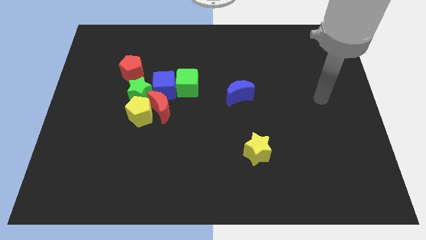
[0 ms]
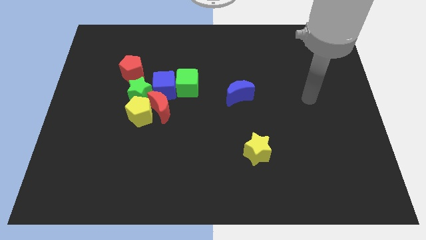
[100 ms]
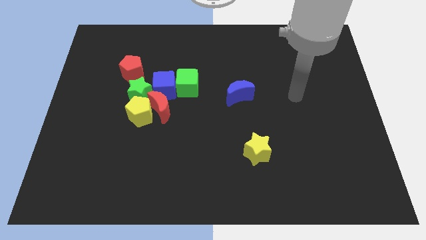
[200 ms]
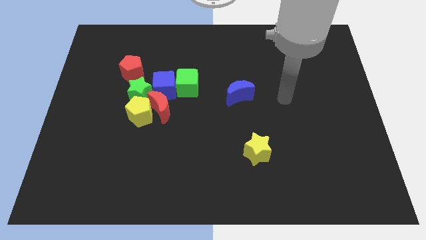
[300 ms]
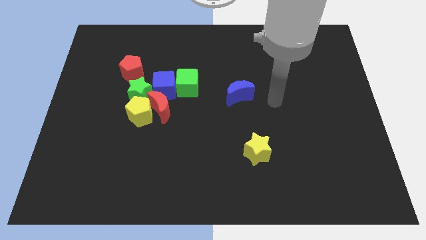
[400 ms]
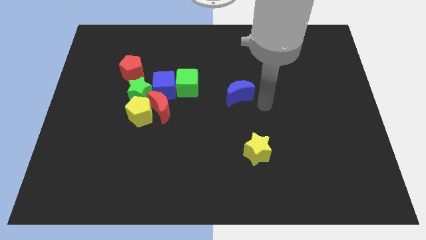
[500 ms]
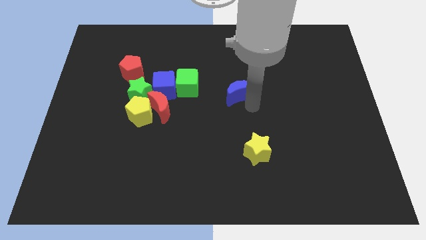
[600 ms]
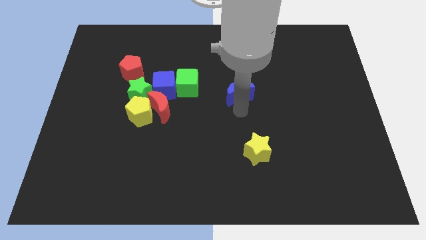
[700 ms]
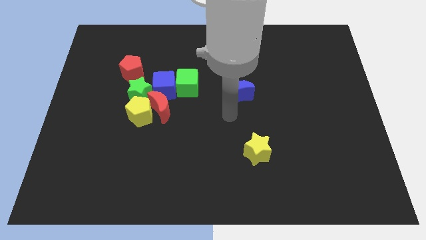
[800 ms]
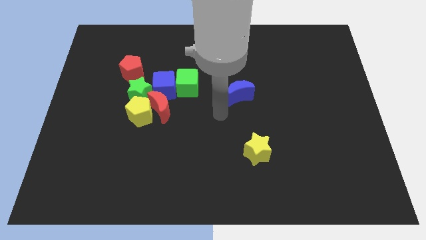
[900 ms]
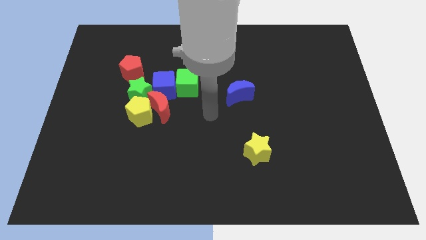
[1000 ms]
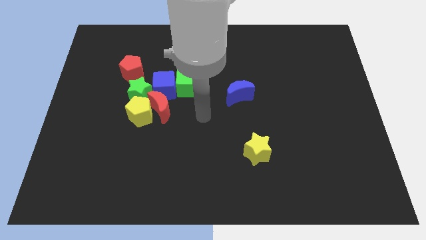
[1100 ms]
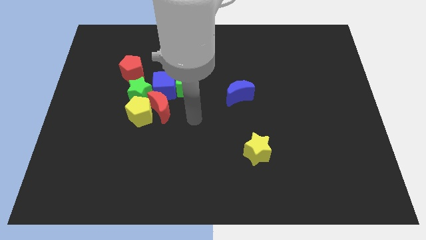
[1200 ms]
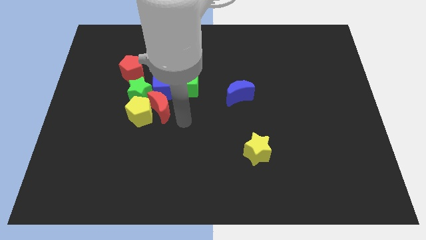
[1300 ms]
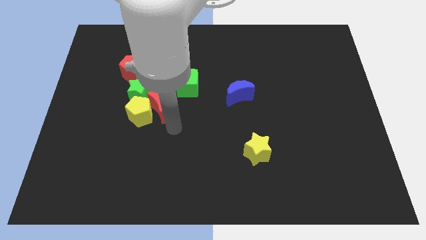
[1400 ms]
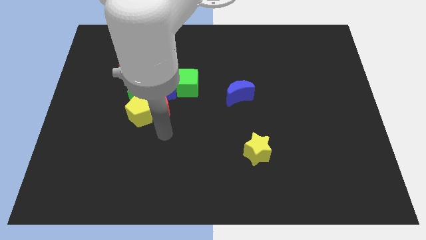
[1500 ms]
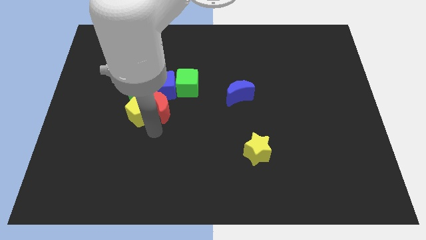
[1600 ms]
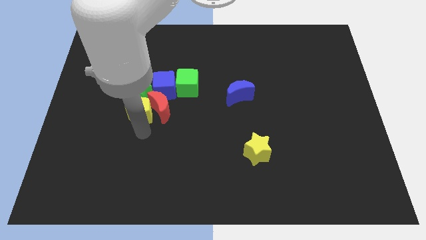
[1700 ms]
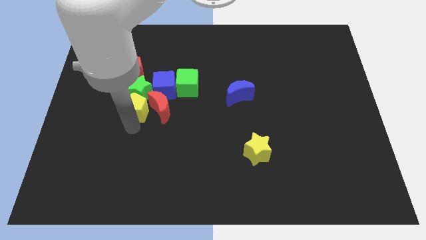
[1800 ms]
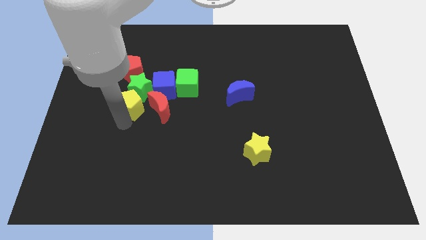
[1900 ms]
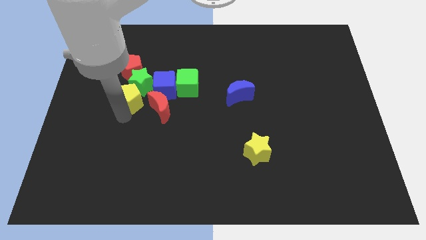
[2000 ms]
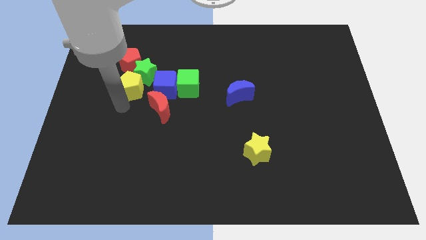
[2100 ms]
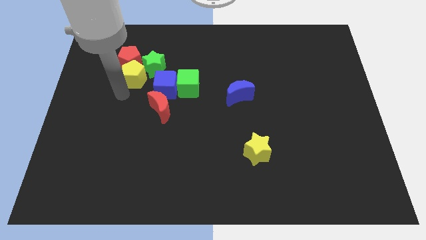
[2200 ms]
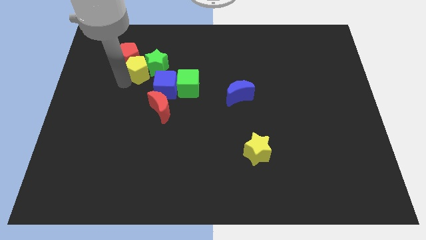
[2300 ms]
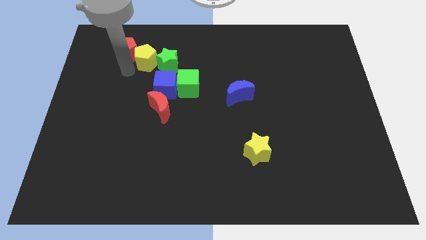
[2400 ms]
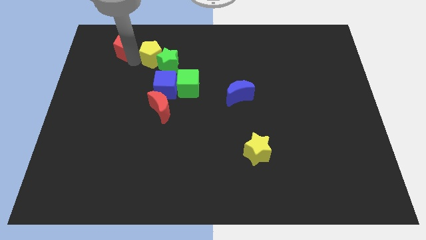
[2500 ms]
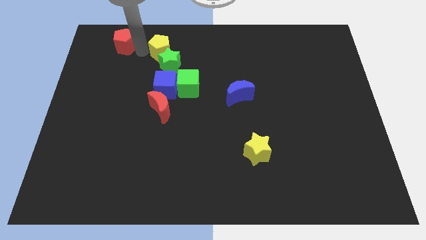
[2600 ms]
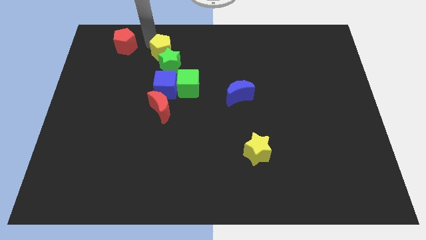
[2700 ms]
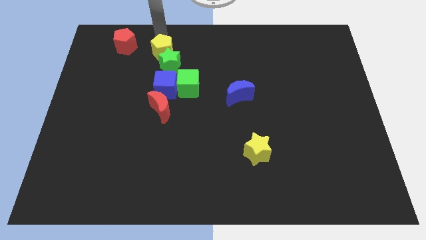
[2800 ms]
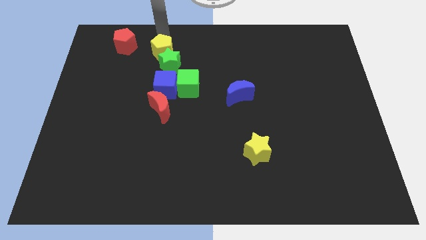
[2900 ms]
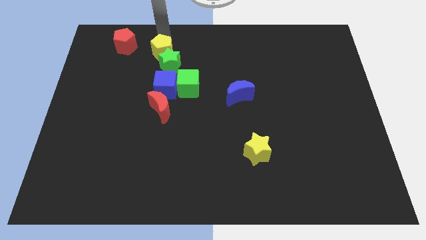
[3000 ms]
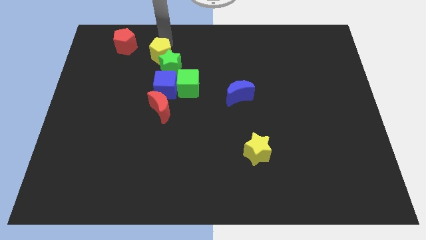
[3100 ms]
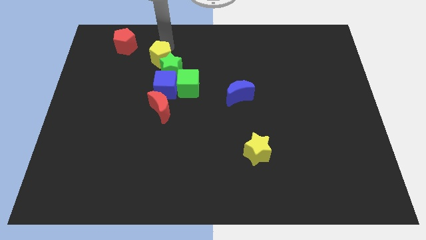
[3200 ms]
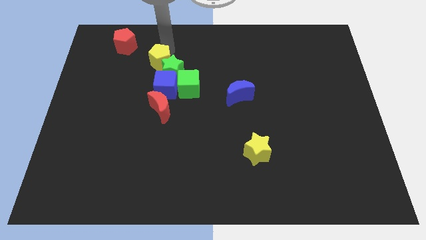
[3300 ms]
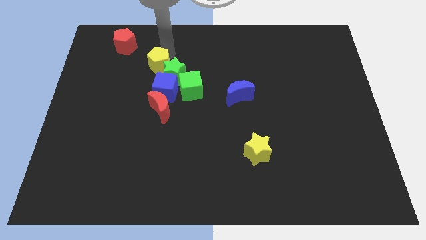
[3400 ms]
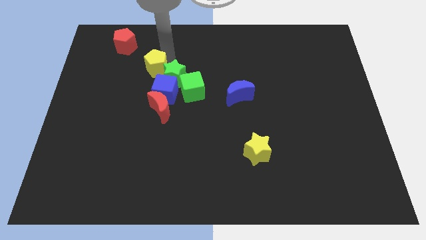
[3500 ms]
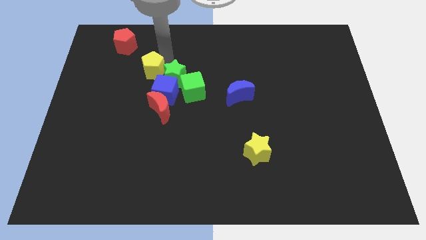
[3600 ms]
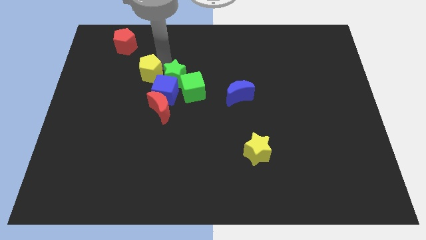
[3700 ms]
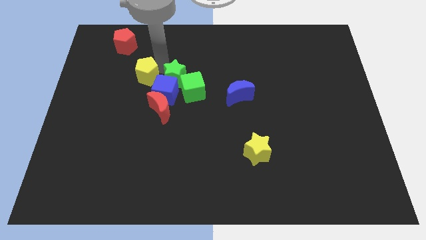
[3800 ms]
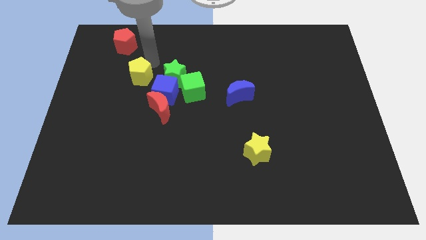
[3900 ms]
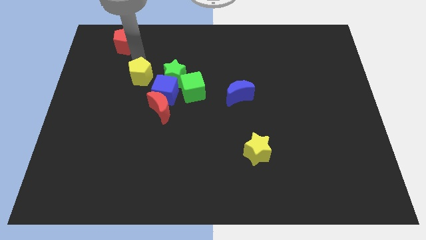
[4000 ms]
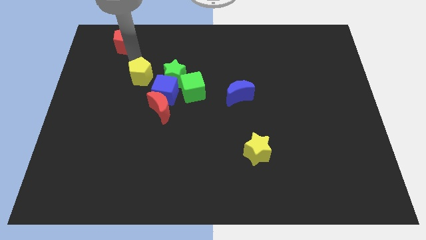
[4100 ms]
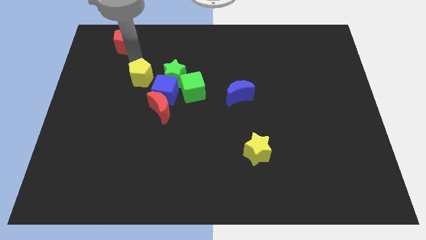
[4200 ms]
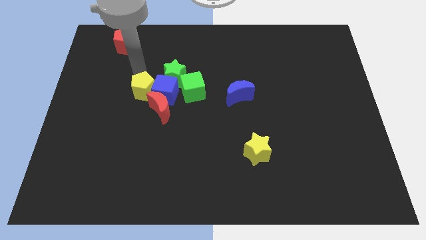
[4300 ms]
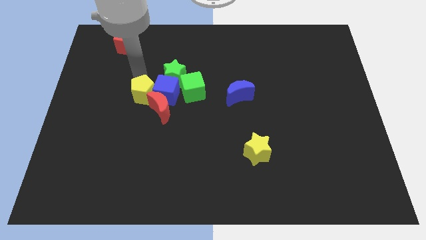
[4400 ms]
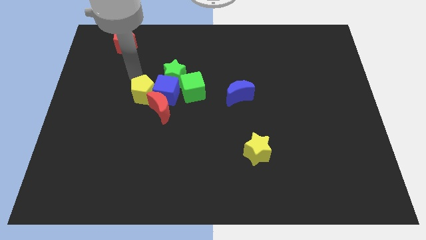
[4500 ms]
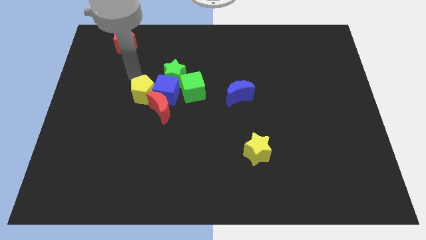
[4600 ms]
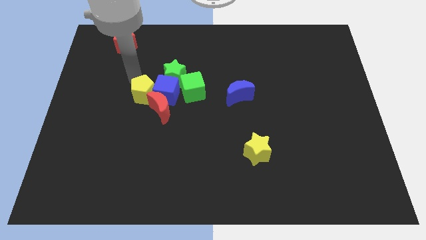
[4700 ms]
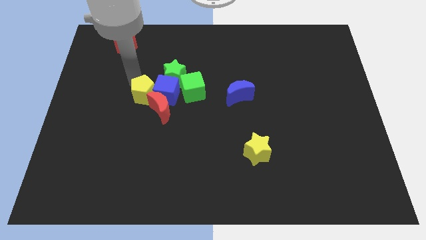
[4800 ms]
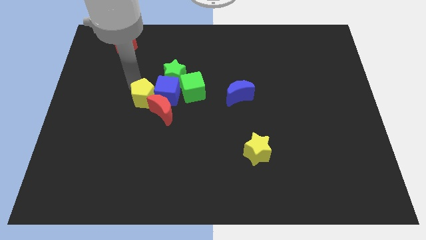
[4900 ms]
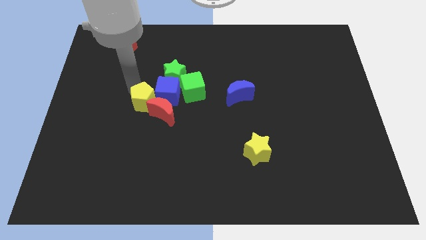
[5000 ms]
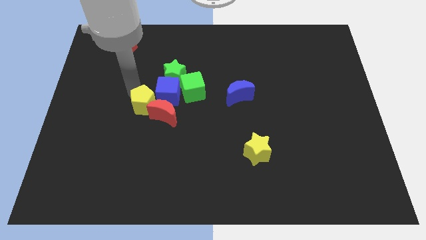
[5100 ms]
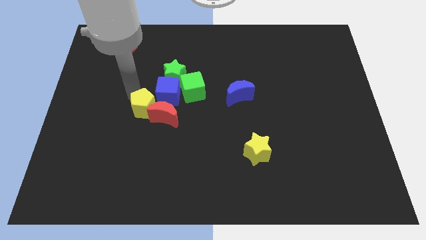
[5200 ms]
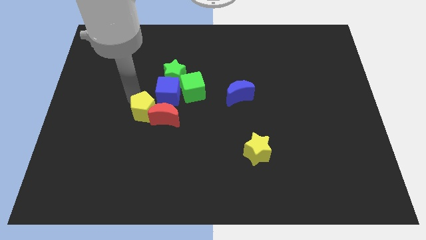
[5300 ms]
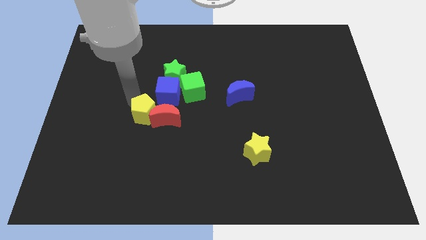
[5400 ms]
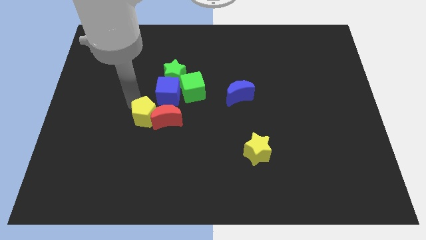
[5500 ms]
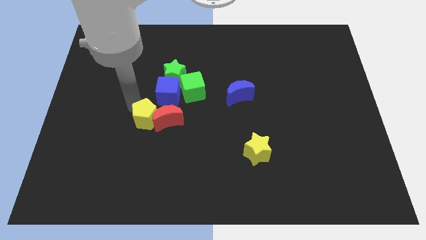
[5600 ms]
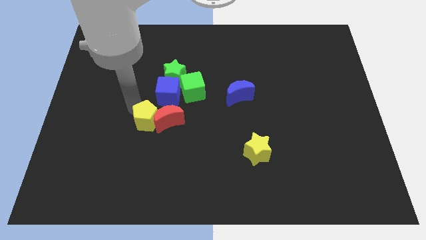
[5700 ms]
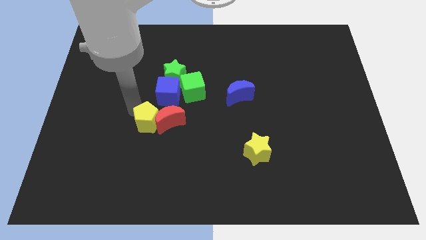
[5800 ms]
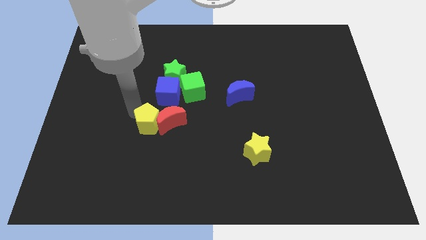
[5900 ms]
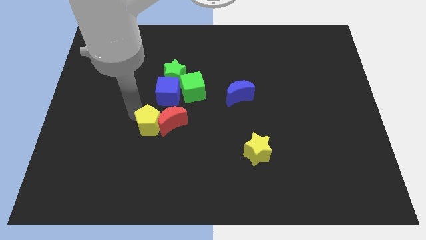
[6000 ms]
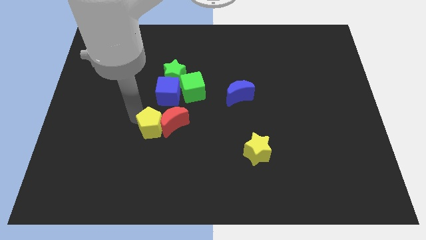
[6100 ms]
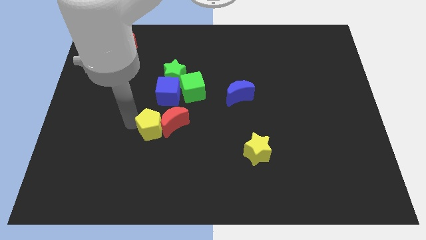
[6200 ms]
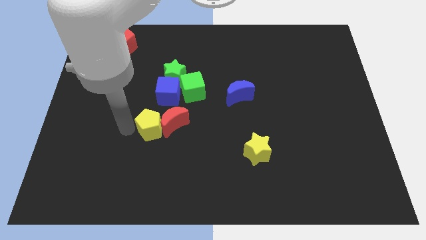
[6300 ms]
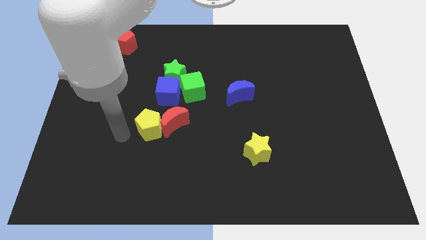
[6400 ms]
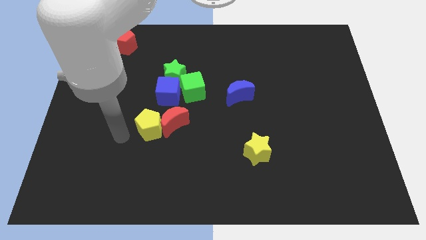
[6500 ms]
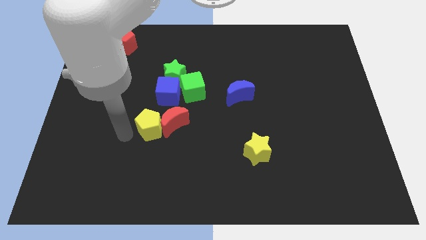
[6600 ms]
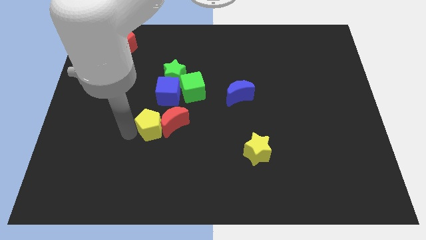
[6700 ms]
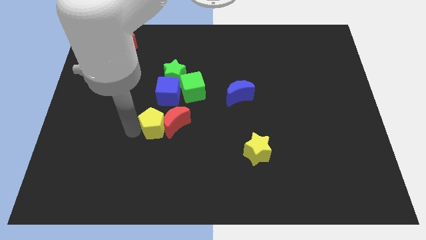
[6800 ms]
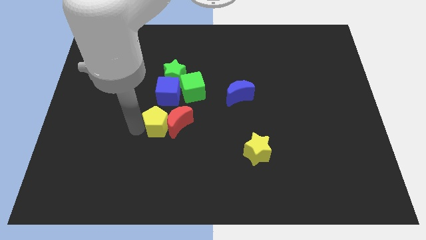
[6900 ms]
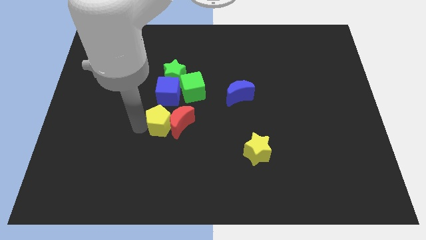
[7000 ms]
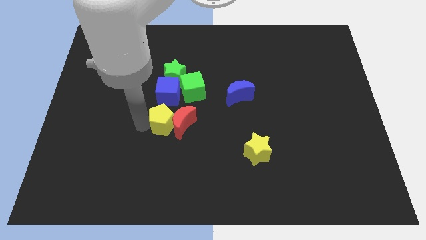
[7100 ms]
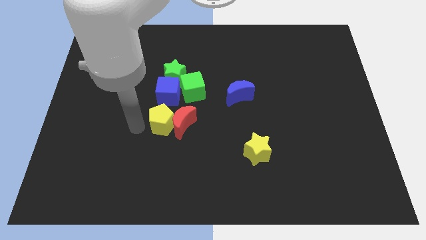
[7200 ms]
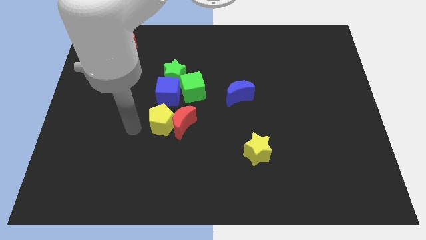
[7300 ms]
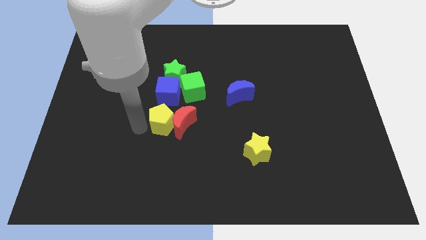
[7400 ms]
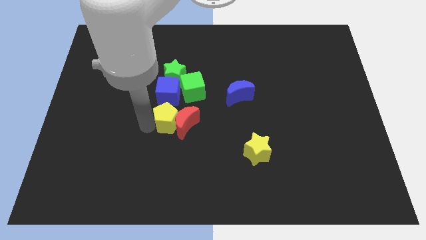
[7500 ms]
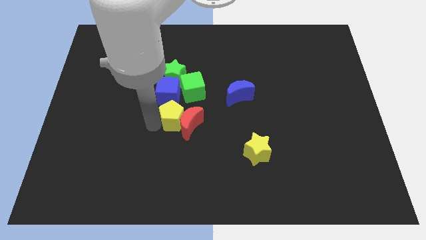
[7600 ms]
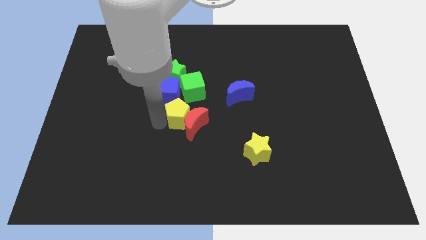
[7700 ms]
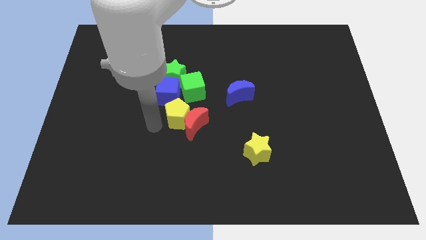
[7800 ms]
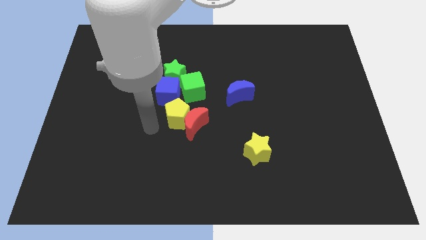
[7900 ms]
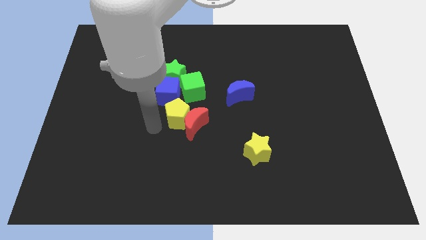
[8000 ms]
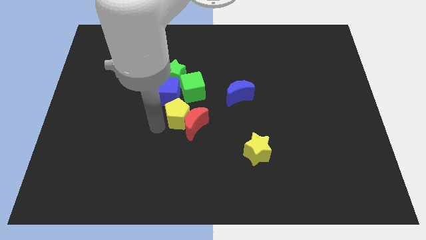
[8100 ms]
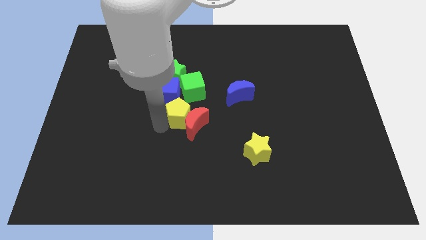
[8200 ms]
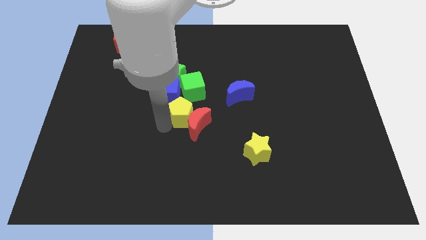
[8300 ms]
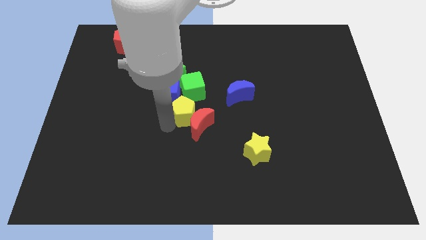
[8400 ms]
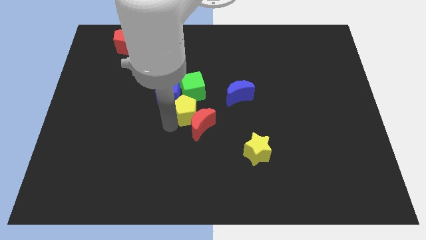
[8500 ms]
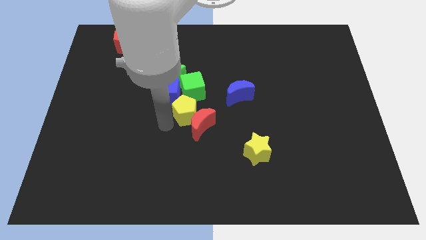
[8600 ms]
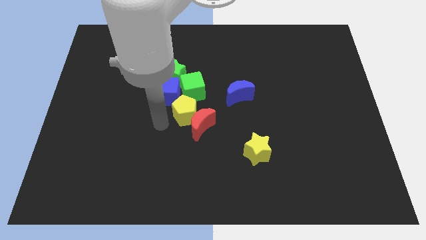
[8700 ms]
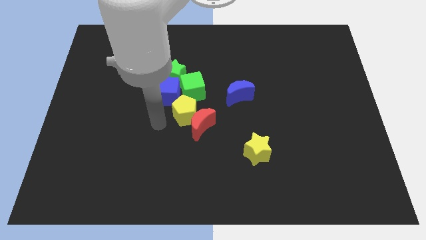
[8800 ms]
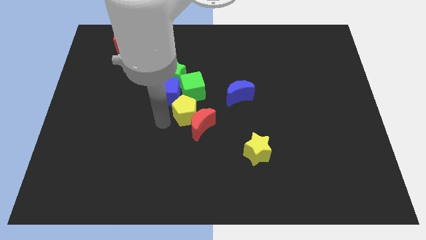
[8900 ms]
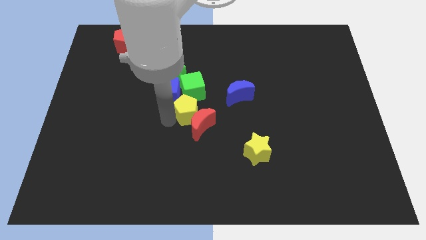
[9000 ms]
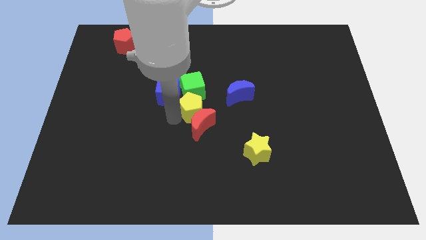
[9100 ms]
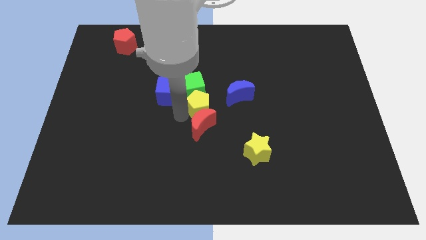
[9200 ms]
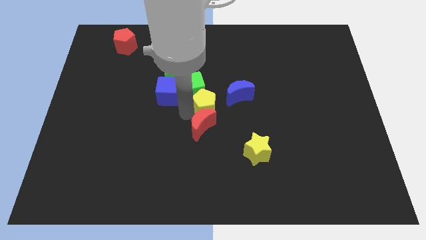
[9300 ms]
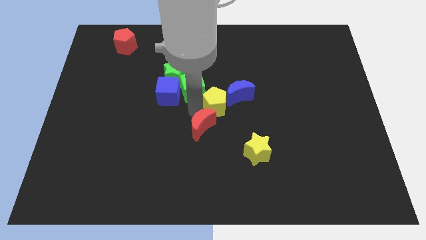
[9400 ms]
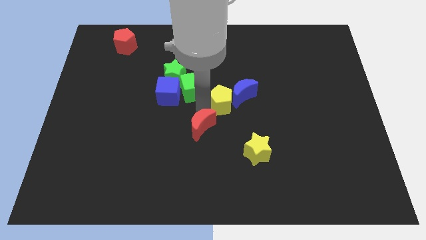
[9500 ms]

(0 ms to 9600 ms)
put the yellow pentagon next to the blue moon
